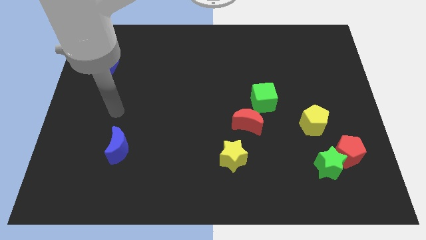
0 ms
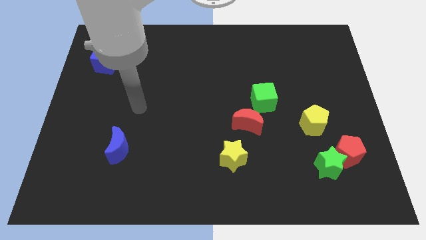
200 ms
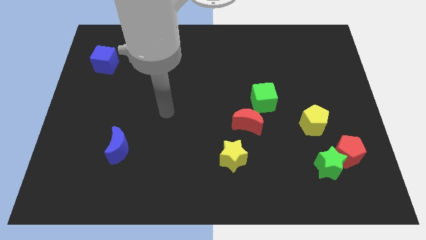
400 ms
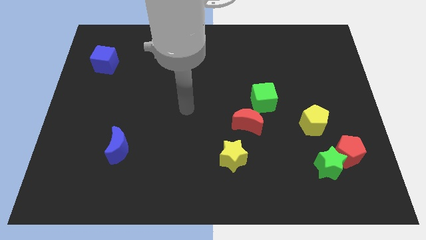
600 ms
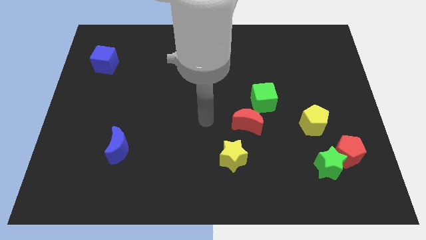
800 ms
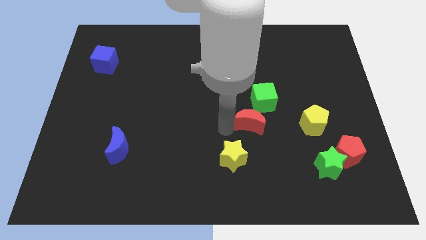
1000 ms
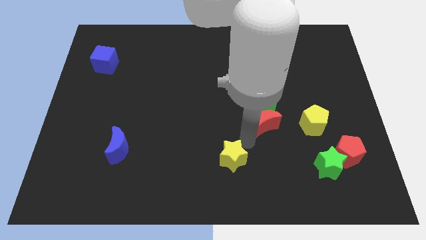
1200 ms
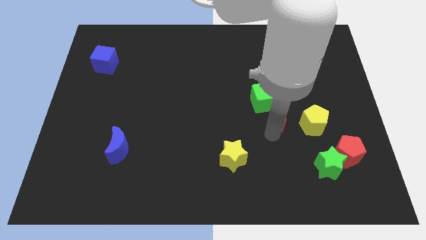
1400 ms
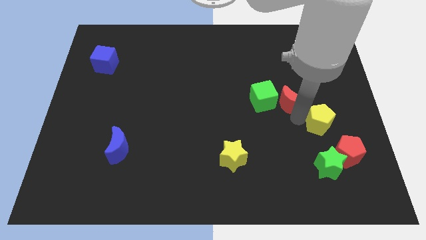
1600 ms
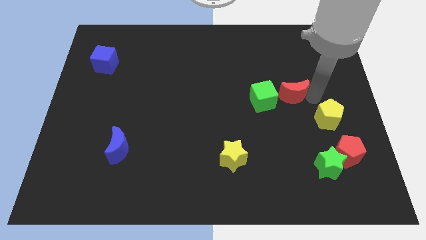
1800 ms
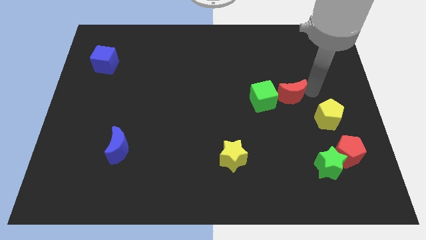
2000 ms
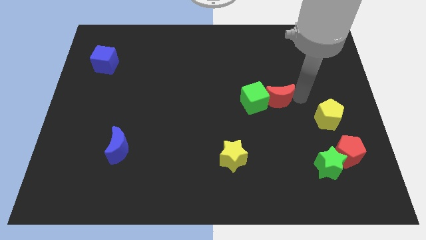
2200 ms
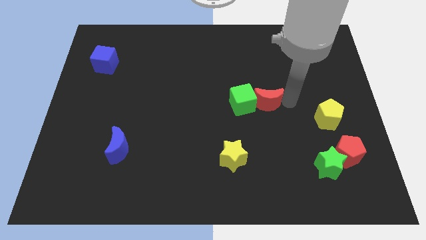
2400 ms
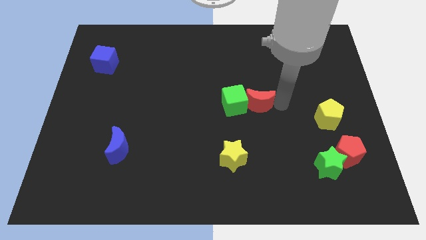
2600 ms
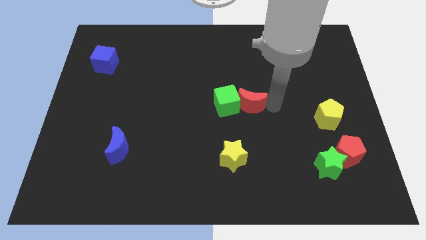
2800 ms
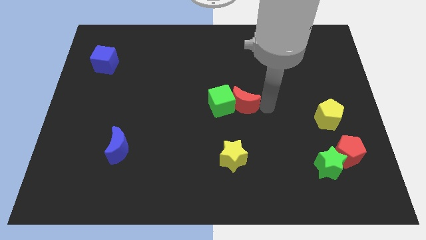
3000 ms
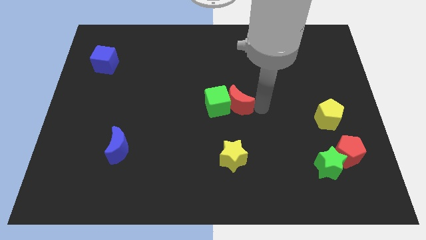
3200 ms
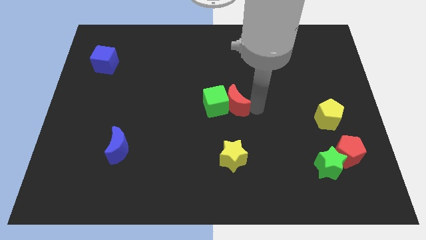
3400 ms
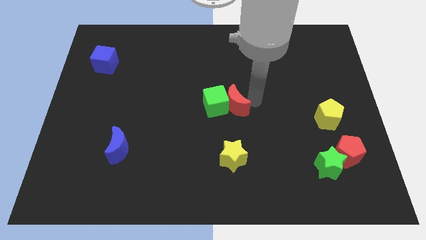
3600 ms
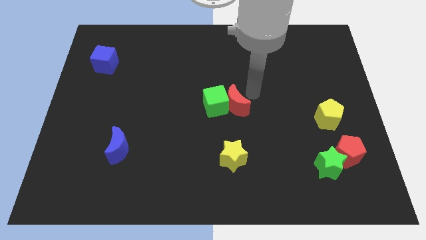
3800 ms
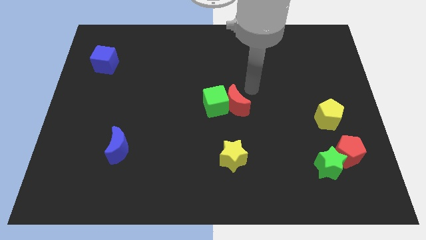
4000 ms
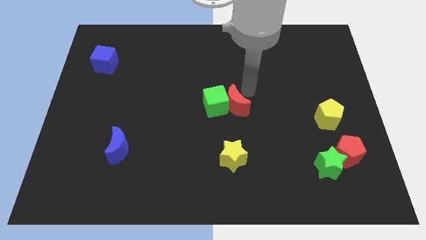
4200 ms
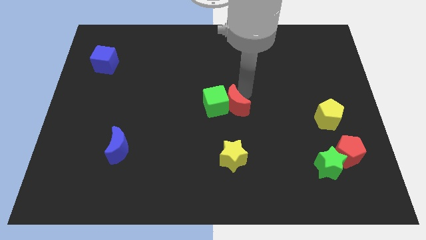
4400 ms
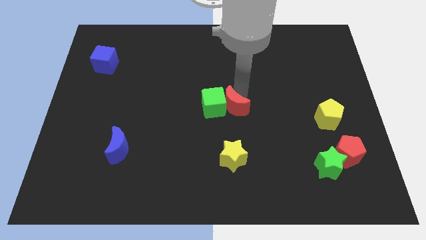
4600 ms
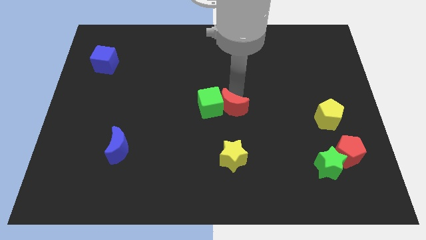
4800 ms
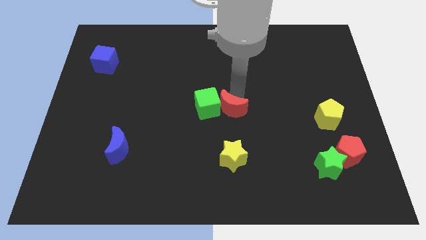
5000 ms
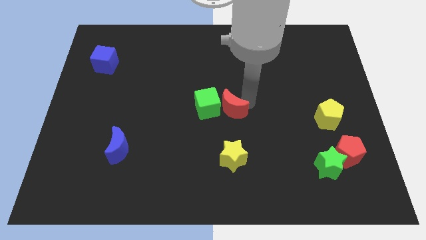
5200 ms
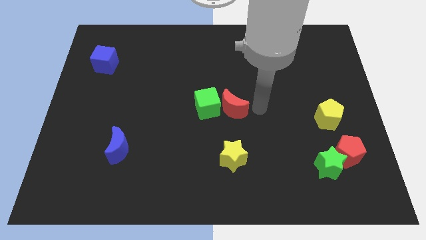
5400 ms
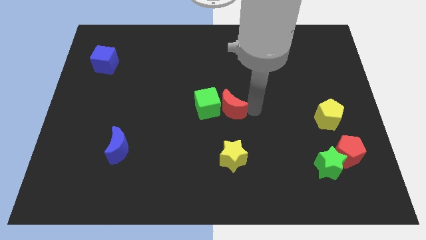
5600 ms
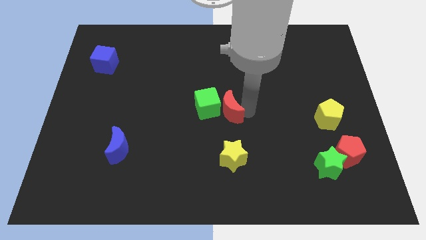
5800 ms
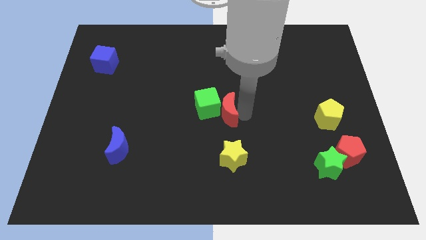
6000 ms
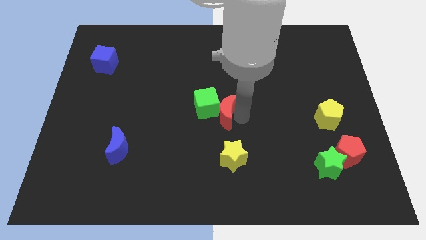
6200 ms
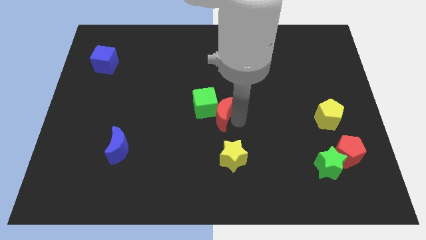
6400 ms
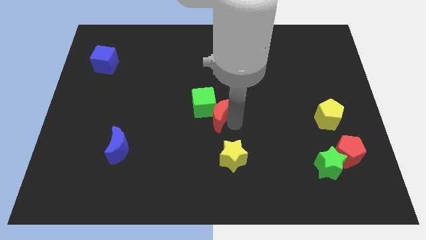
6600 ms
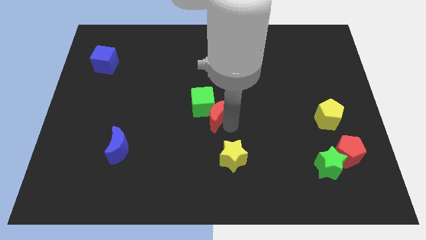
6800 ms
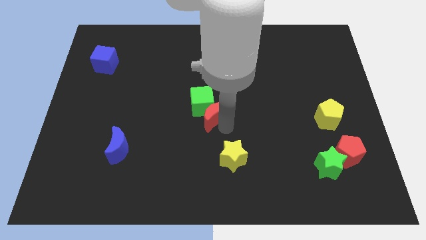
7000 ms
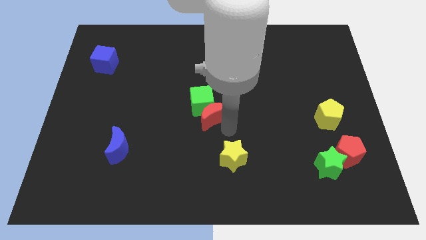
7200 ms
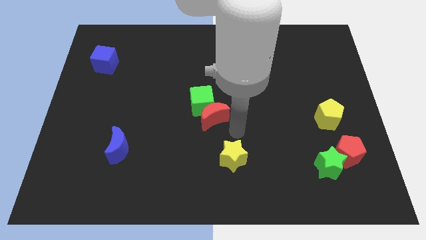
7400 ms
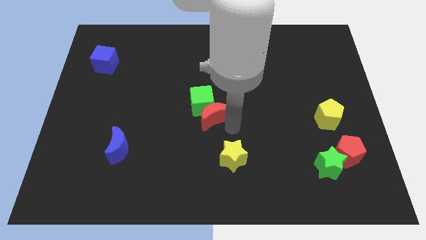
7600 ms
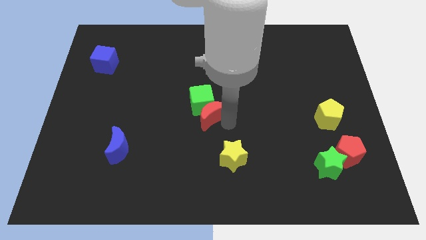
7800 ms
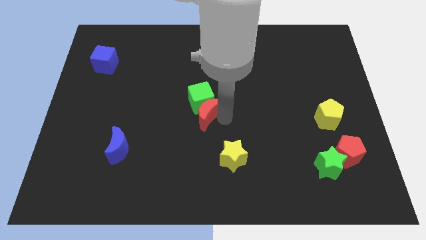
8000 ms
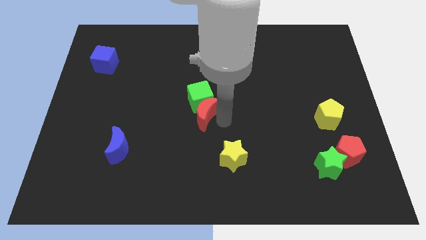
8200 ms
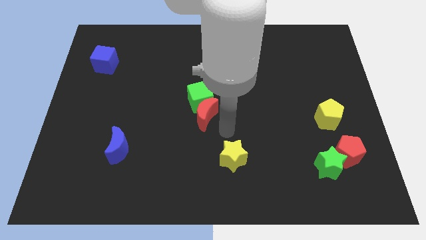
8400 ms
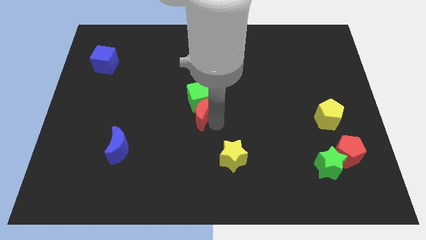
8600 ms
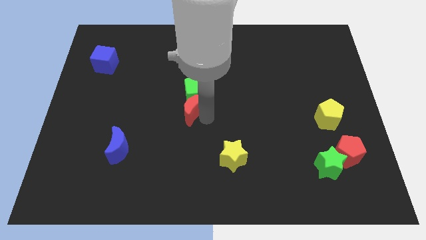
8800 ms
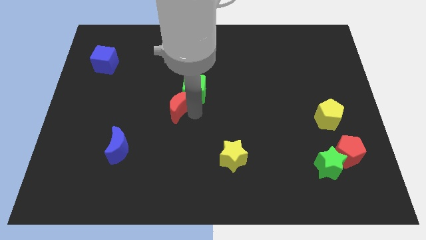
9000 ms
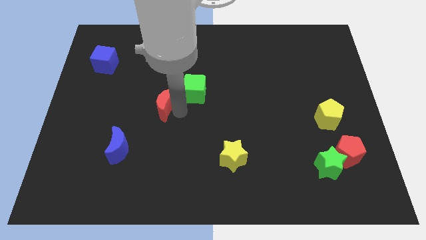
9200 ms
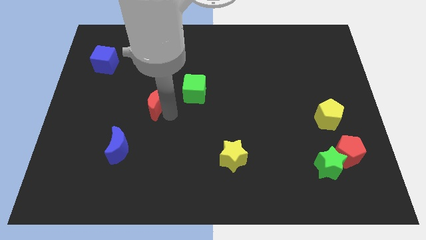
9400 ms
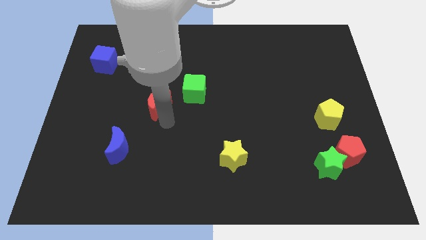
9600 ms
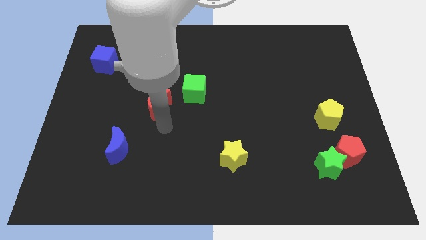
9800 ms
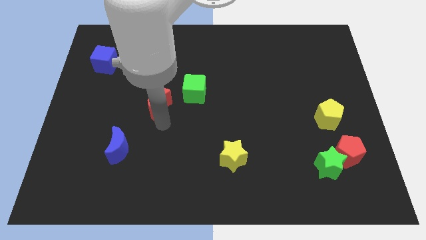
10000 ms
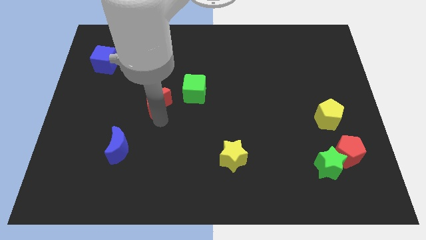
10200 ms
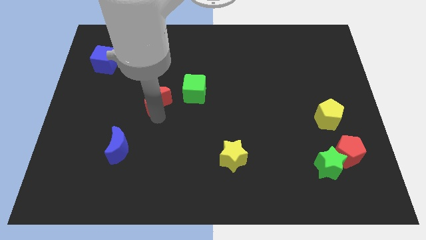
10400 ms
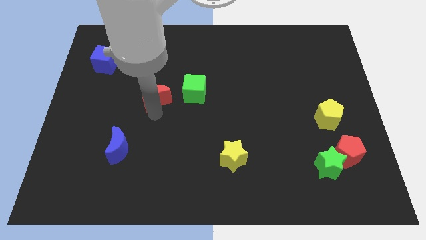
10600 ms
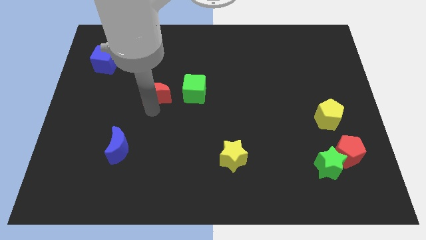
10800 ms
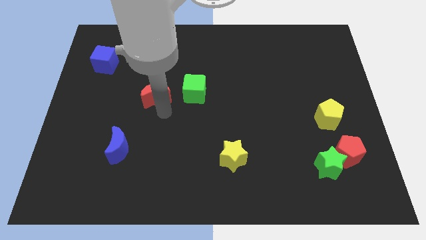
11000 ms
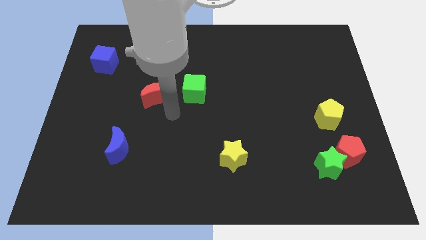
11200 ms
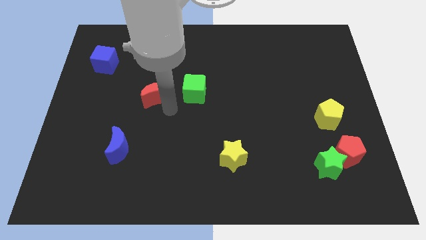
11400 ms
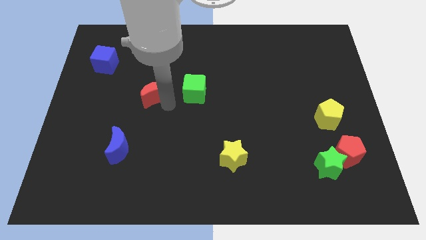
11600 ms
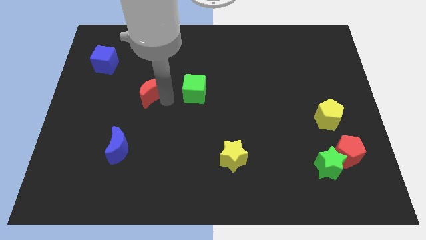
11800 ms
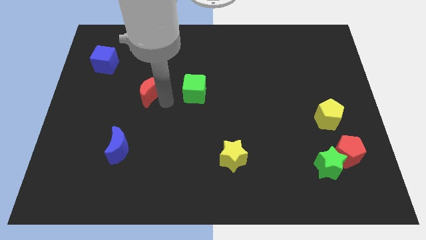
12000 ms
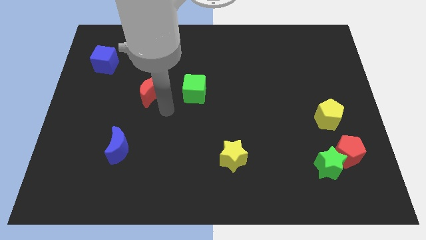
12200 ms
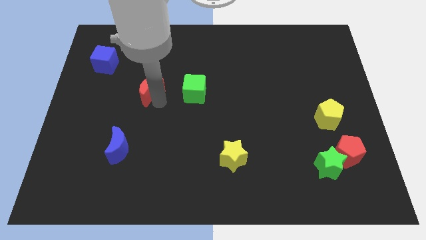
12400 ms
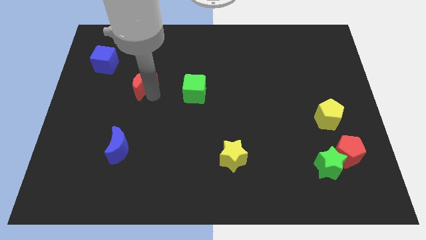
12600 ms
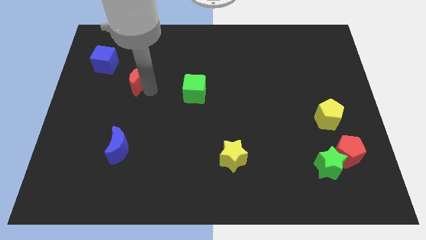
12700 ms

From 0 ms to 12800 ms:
push the red moon to the bottom right side of the blue cube

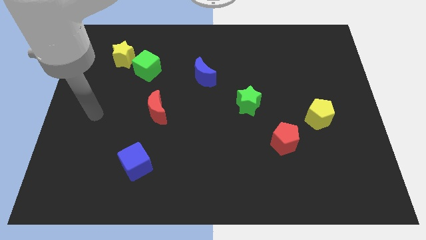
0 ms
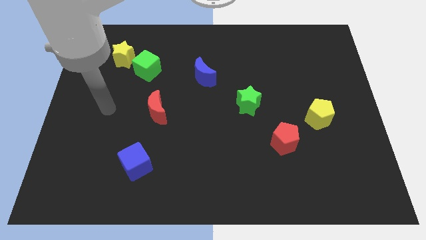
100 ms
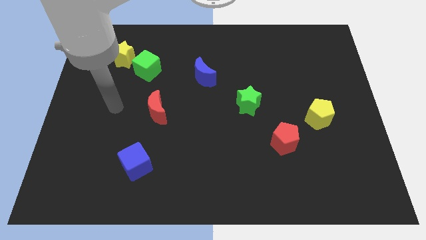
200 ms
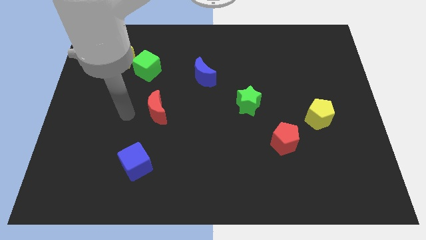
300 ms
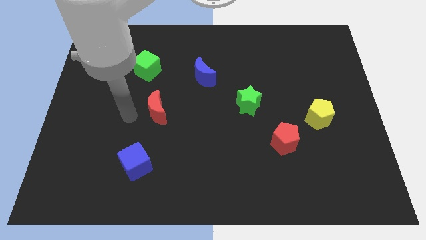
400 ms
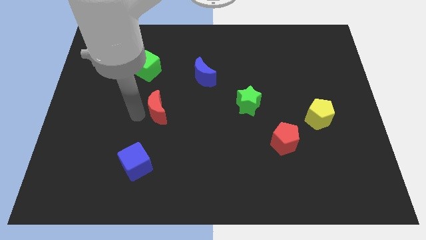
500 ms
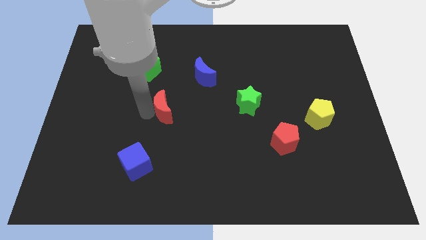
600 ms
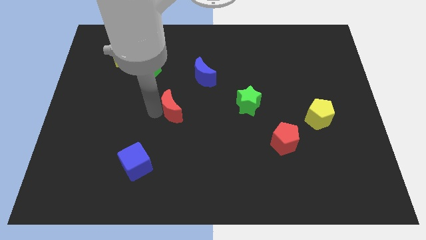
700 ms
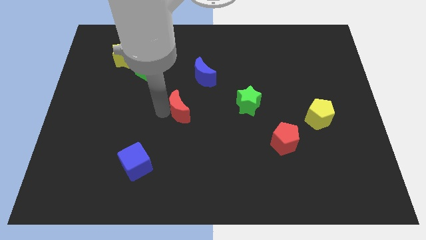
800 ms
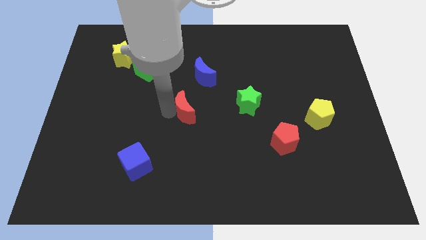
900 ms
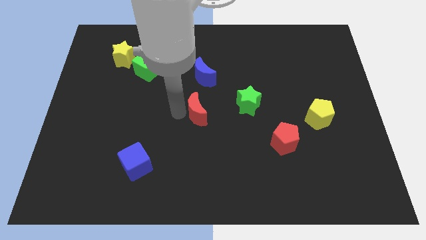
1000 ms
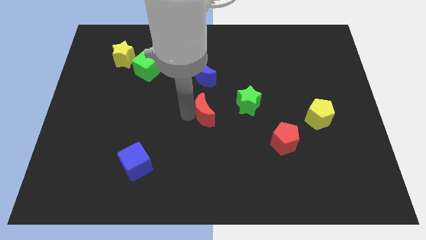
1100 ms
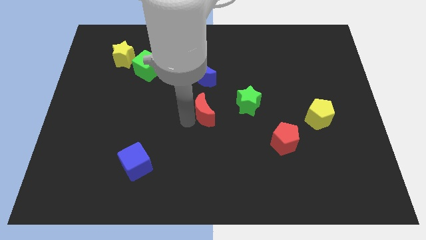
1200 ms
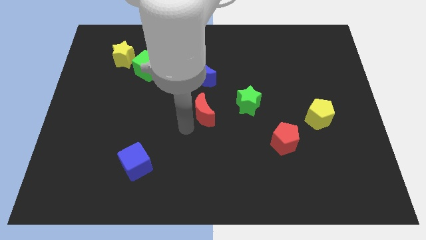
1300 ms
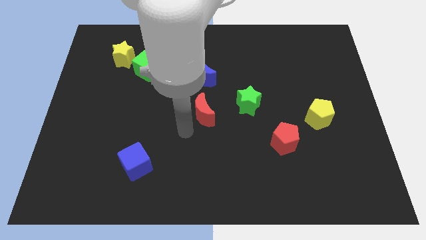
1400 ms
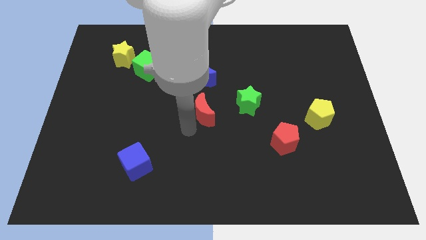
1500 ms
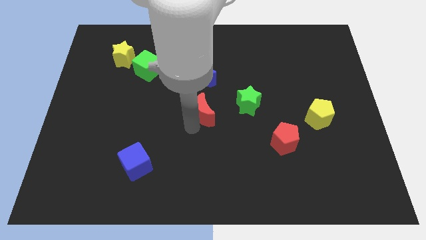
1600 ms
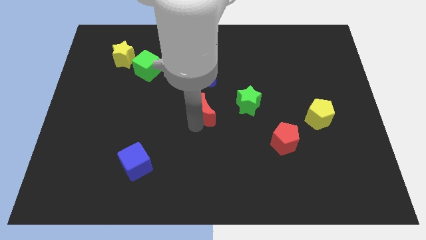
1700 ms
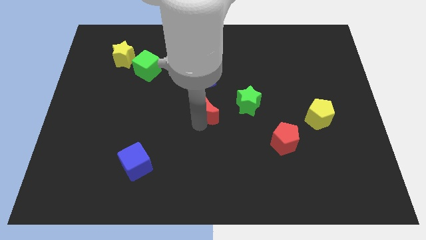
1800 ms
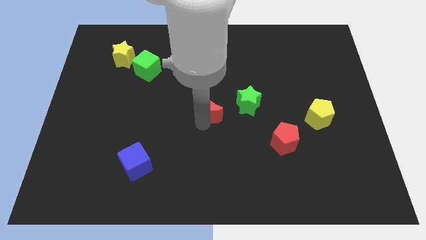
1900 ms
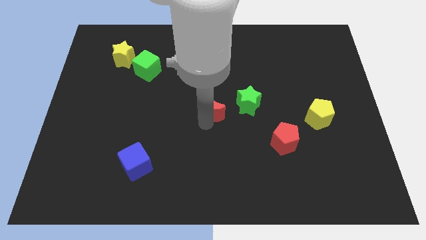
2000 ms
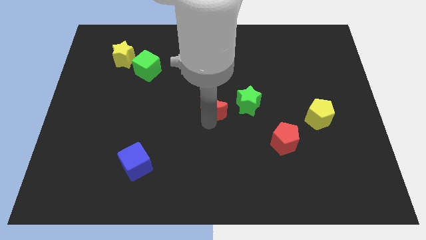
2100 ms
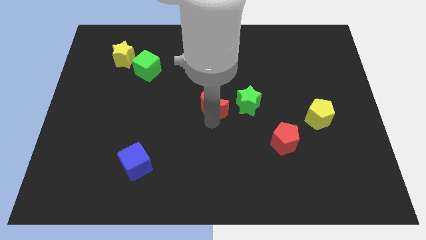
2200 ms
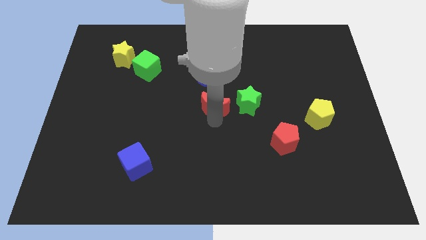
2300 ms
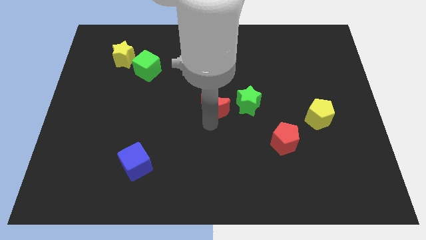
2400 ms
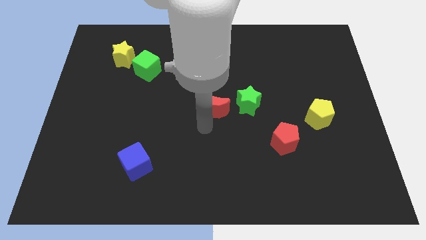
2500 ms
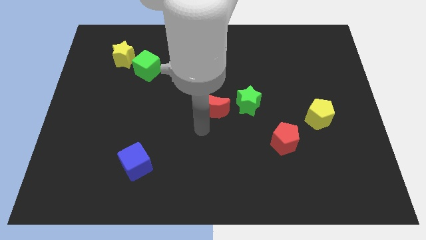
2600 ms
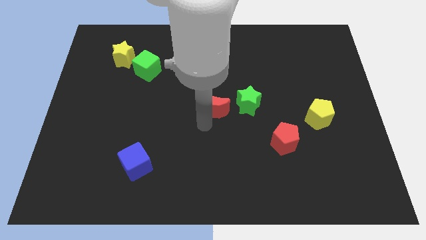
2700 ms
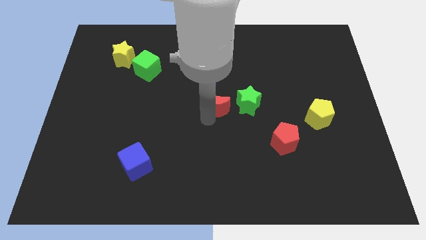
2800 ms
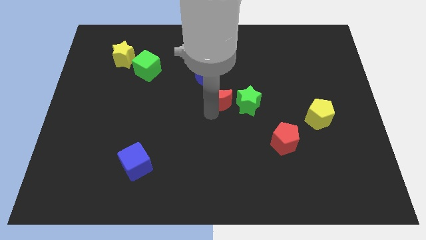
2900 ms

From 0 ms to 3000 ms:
push the red moon to the bottom right of the blue moon
